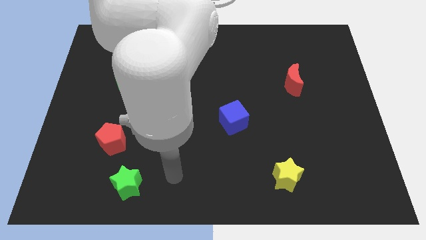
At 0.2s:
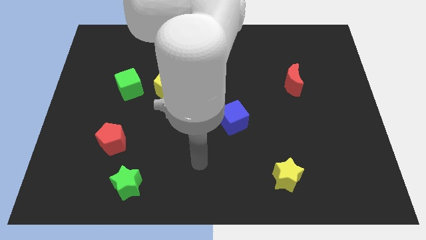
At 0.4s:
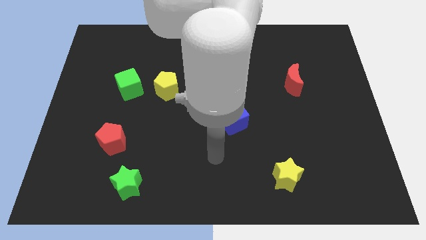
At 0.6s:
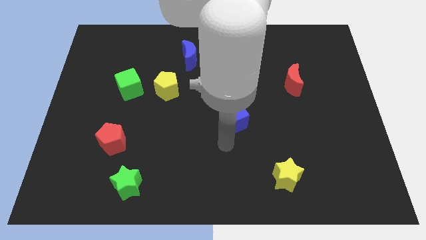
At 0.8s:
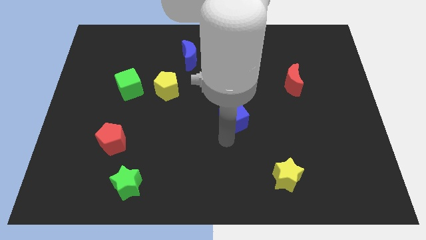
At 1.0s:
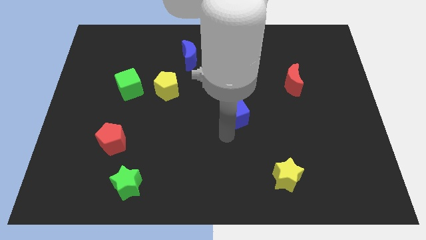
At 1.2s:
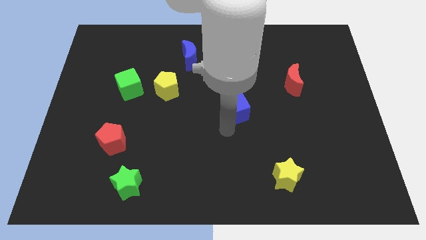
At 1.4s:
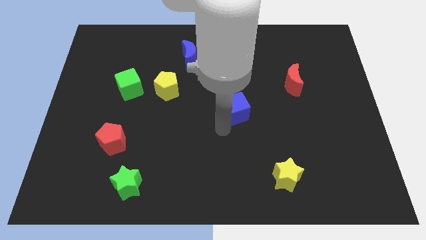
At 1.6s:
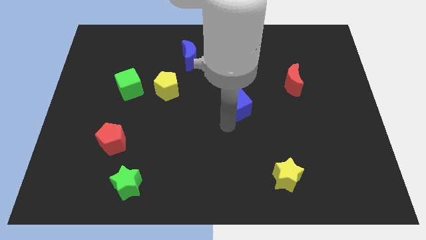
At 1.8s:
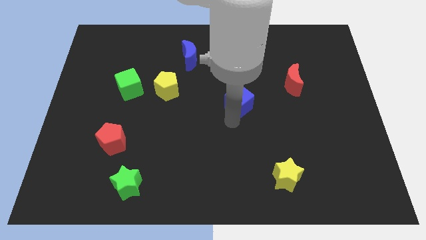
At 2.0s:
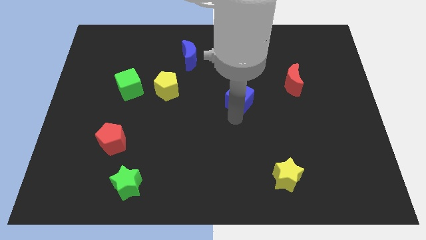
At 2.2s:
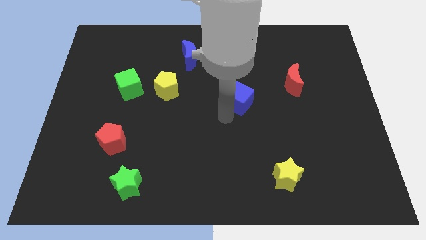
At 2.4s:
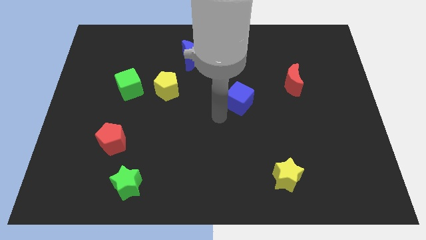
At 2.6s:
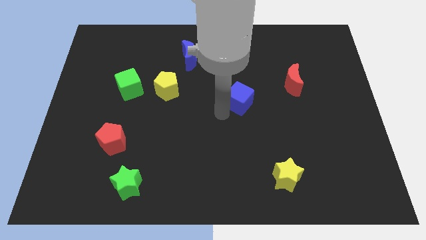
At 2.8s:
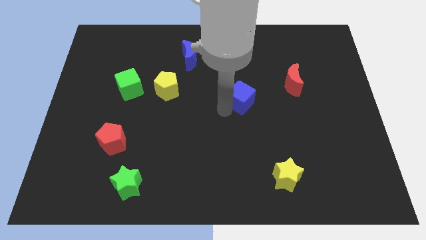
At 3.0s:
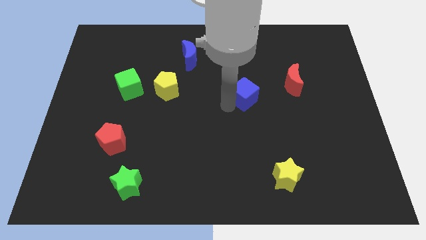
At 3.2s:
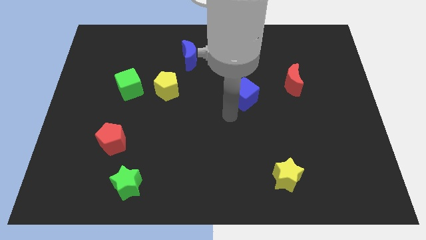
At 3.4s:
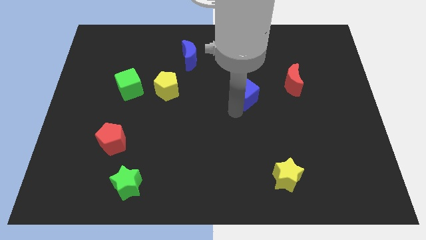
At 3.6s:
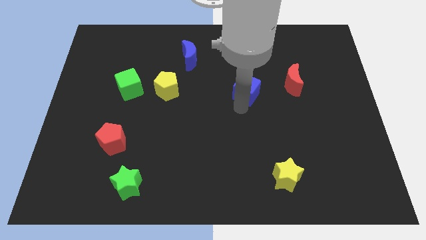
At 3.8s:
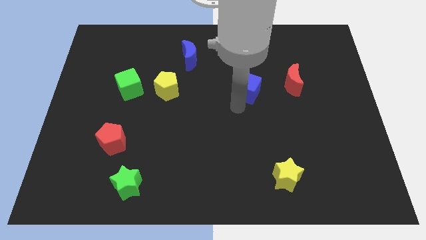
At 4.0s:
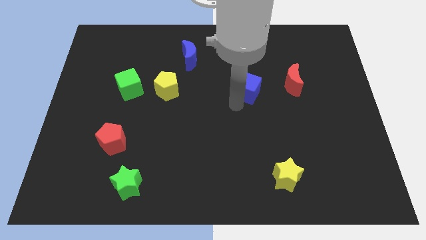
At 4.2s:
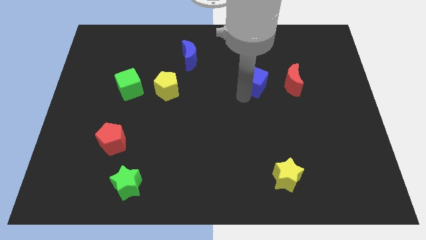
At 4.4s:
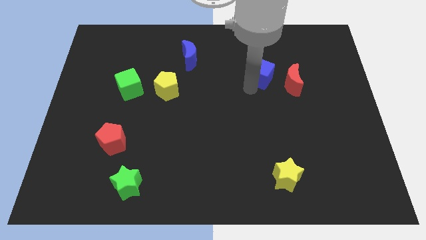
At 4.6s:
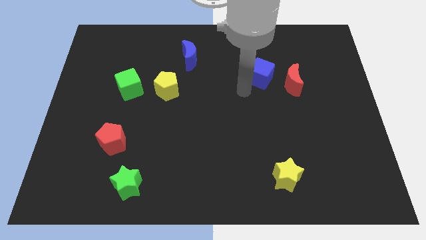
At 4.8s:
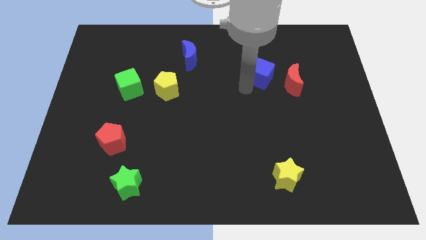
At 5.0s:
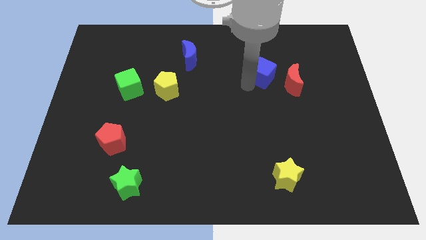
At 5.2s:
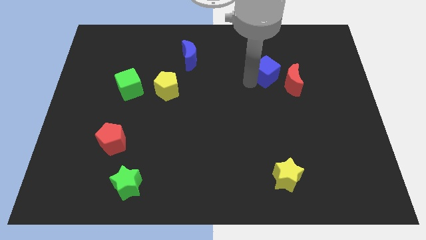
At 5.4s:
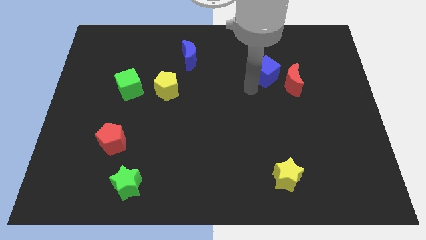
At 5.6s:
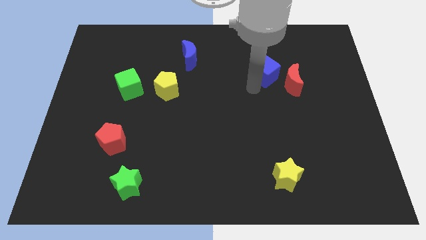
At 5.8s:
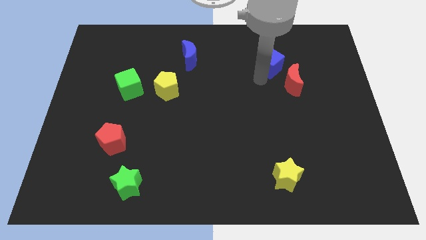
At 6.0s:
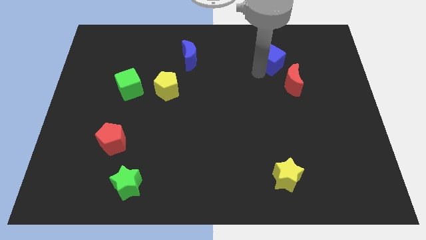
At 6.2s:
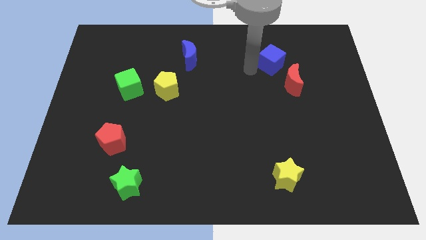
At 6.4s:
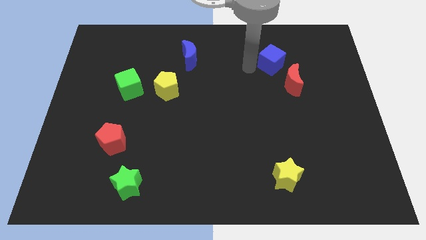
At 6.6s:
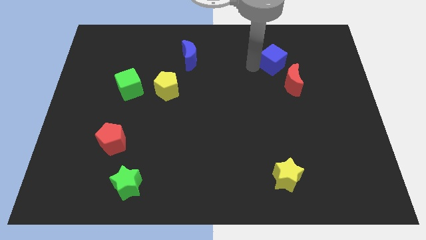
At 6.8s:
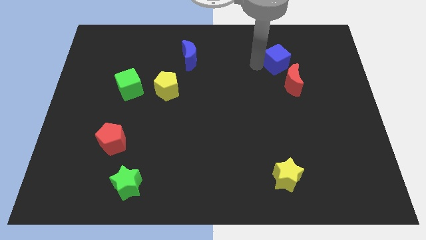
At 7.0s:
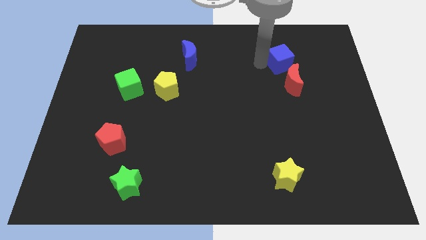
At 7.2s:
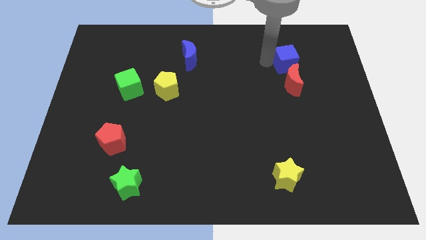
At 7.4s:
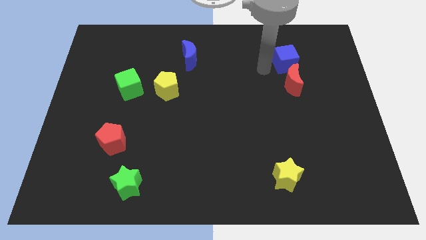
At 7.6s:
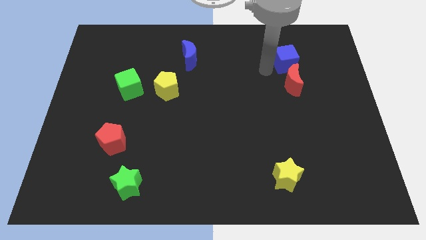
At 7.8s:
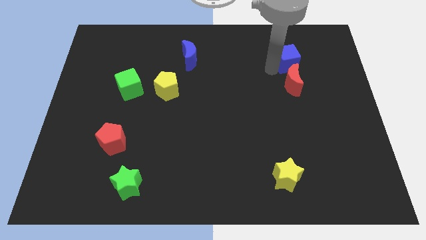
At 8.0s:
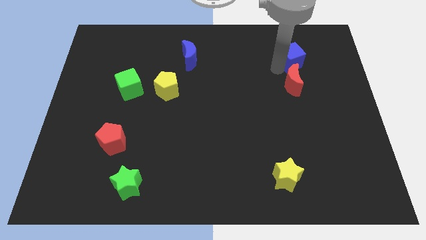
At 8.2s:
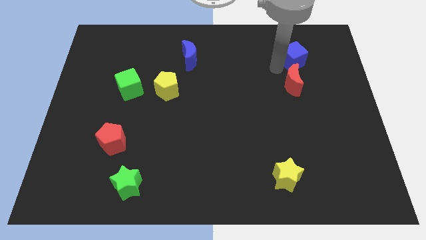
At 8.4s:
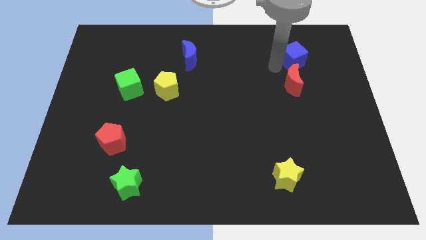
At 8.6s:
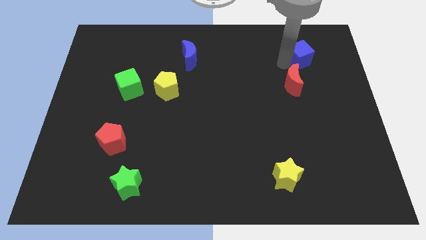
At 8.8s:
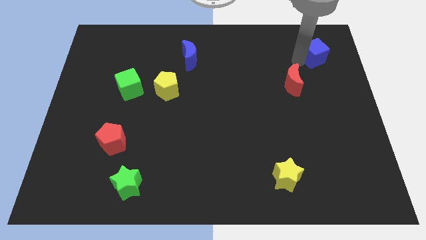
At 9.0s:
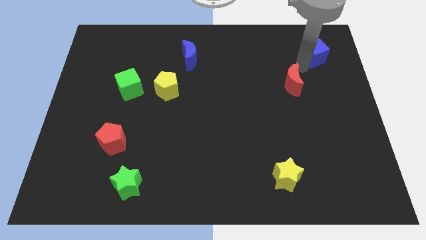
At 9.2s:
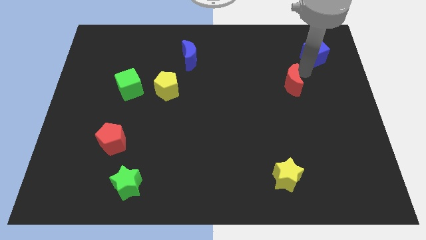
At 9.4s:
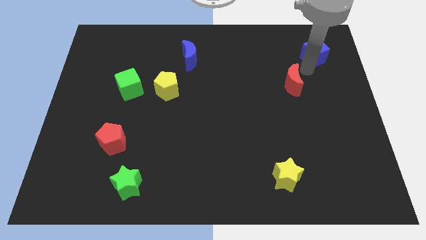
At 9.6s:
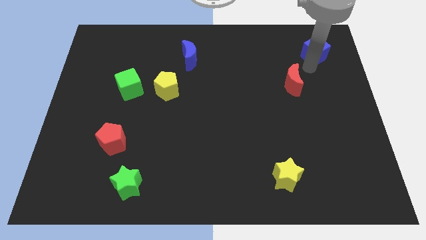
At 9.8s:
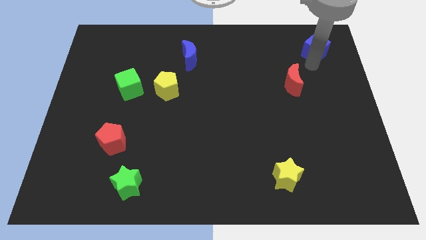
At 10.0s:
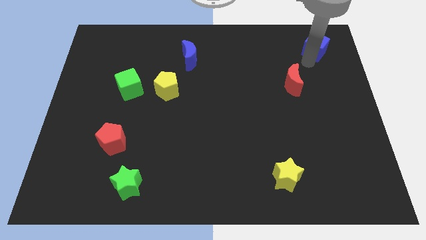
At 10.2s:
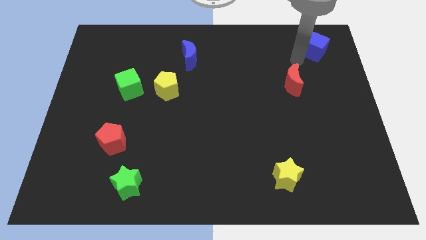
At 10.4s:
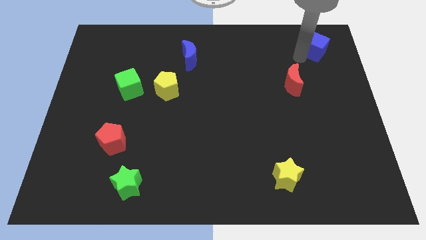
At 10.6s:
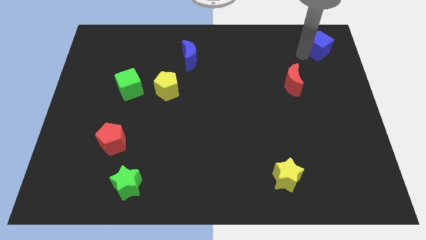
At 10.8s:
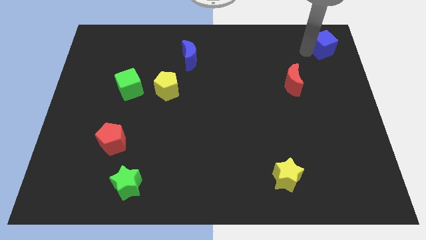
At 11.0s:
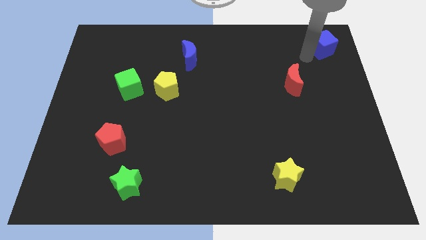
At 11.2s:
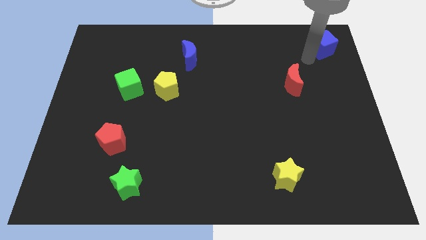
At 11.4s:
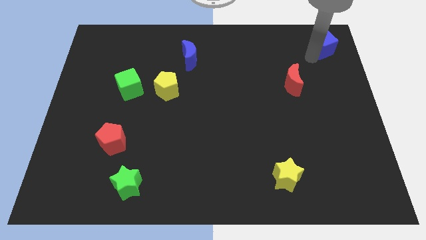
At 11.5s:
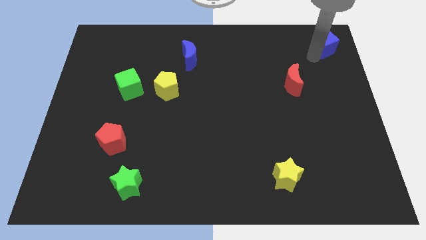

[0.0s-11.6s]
put the blue cube to the top right of the board

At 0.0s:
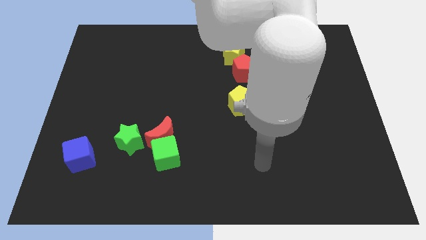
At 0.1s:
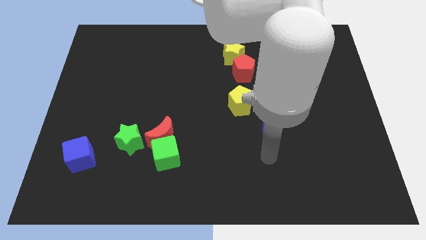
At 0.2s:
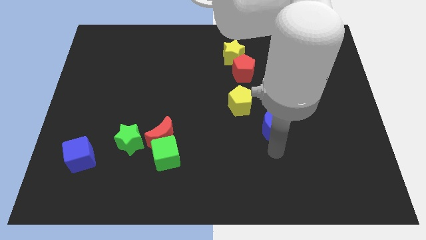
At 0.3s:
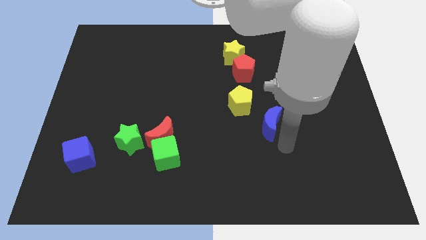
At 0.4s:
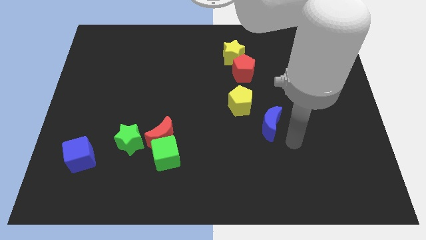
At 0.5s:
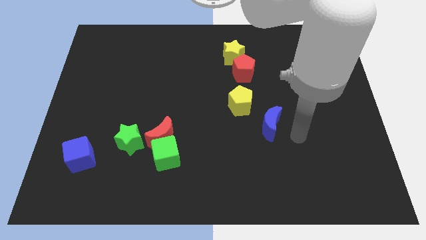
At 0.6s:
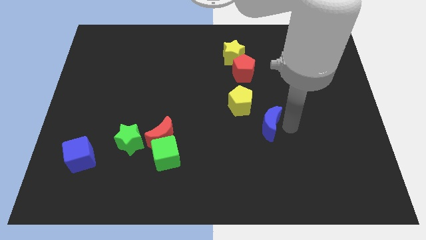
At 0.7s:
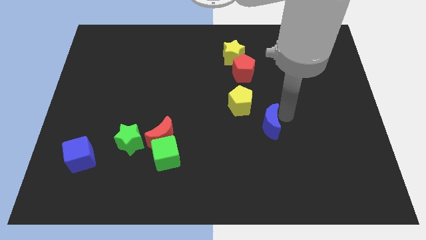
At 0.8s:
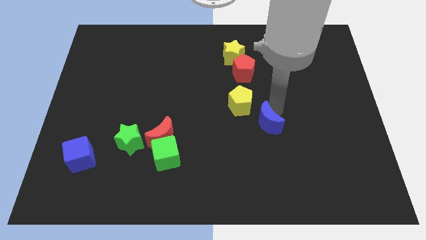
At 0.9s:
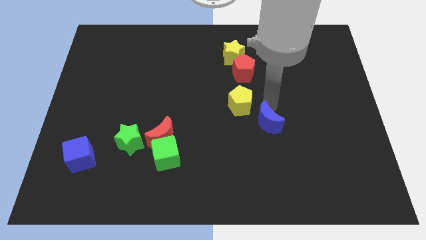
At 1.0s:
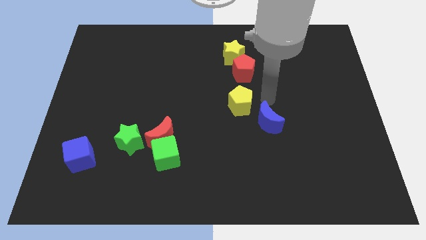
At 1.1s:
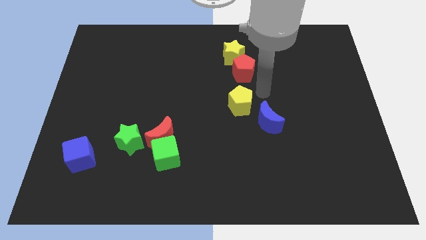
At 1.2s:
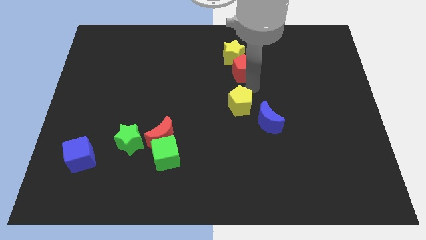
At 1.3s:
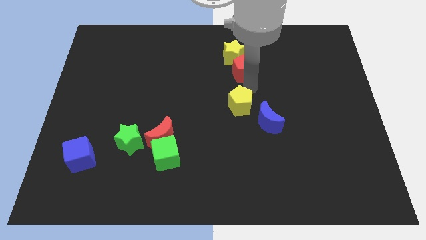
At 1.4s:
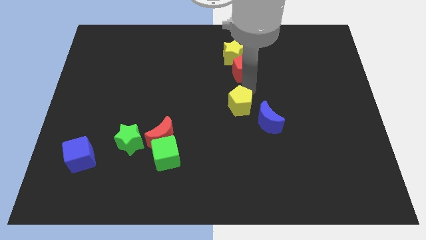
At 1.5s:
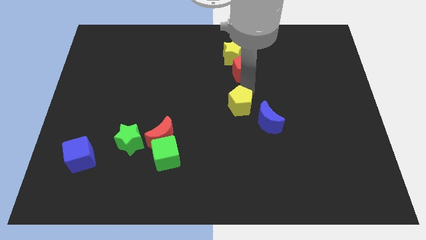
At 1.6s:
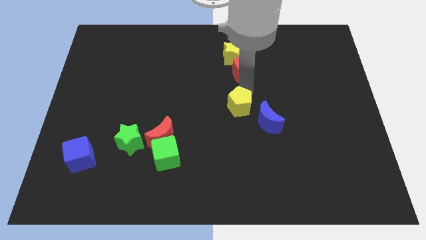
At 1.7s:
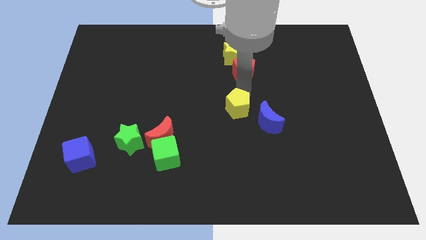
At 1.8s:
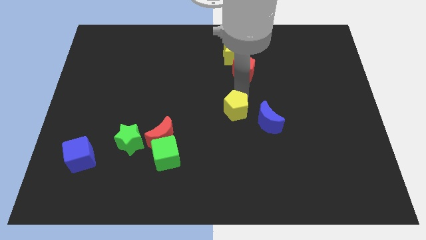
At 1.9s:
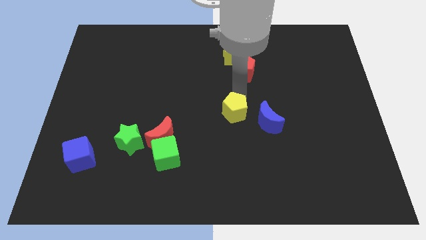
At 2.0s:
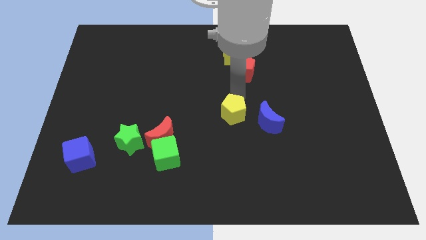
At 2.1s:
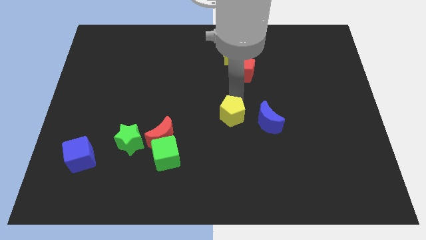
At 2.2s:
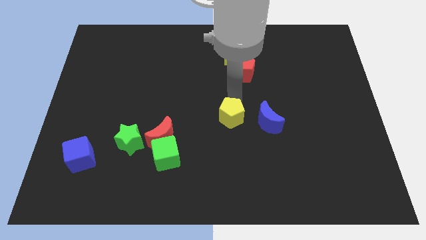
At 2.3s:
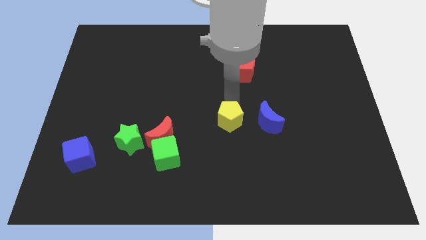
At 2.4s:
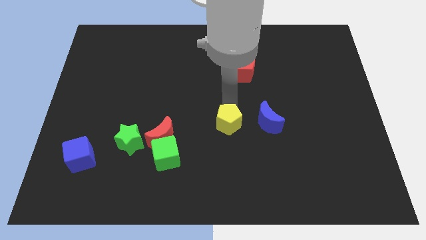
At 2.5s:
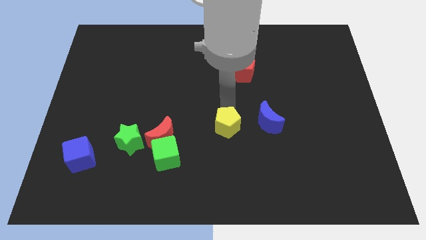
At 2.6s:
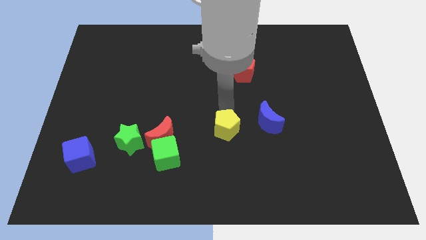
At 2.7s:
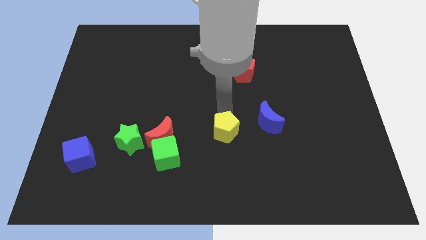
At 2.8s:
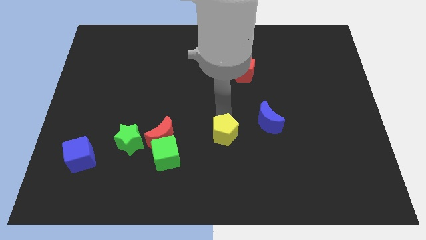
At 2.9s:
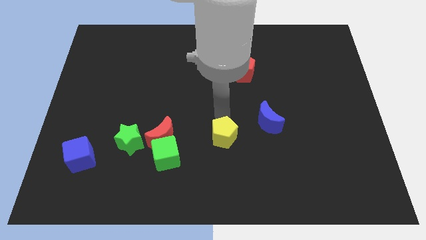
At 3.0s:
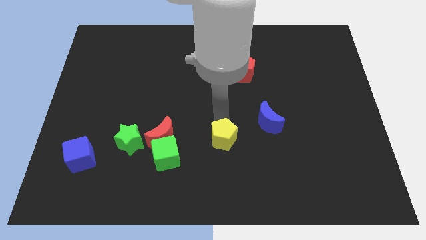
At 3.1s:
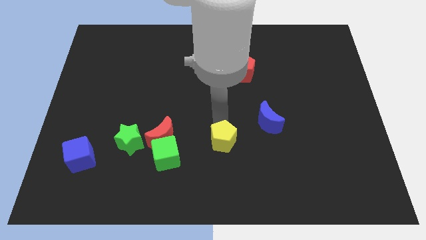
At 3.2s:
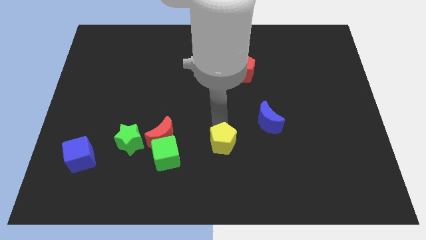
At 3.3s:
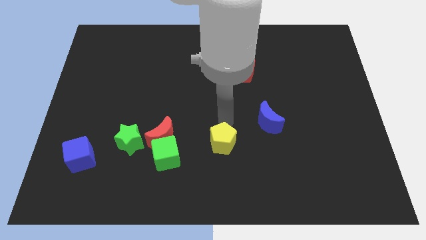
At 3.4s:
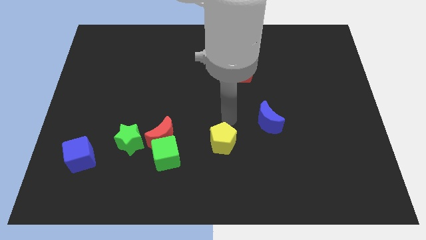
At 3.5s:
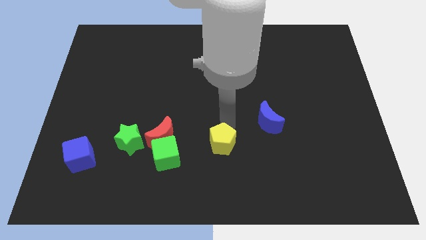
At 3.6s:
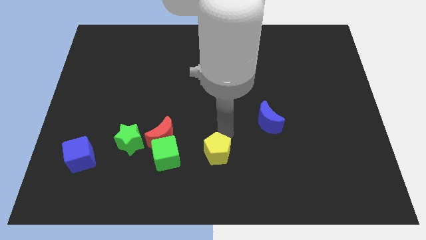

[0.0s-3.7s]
move the yellow pentagon to the bottom
